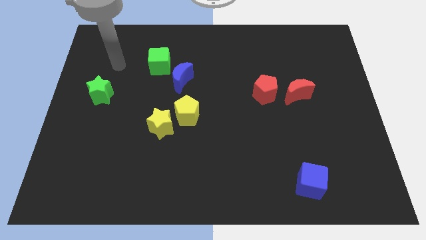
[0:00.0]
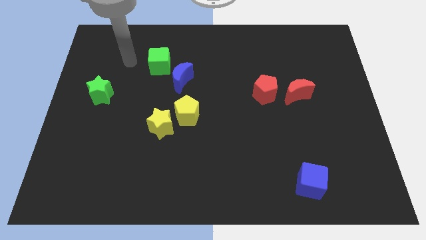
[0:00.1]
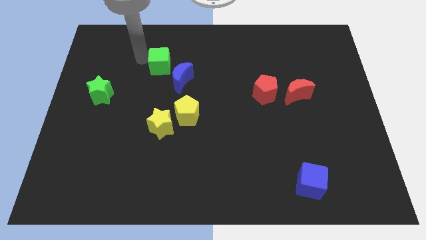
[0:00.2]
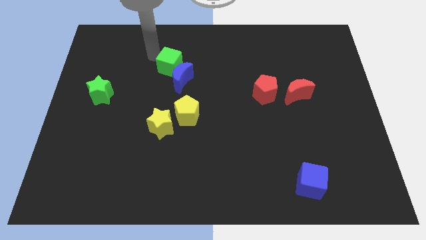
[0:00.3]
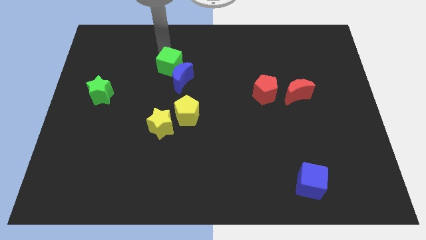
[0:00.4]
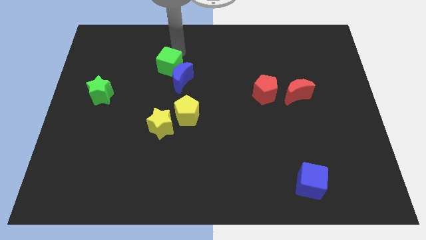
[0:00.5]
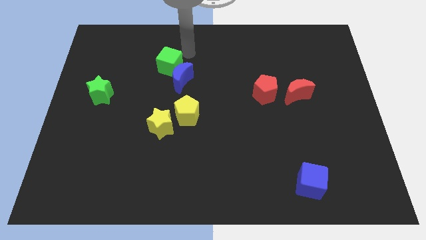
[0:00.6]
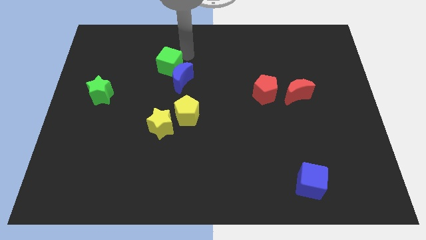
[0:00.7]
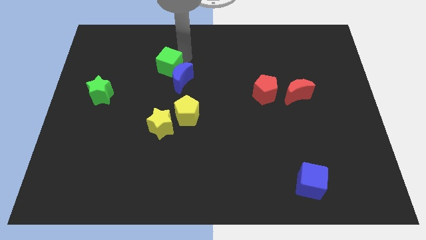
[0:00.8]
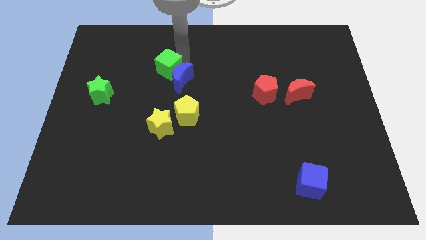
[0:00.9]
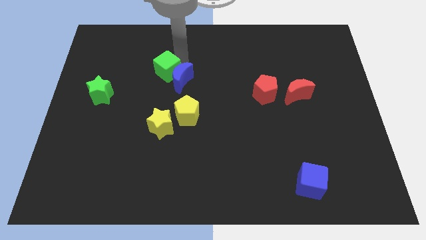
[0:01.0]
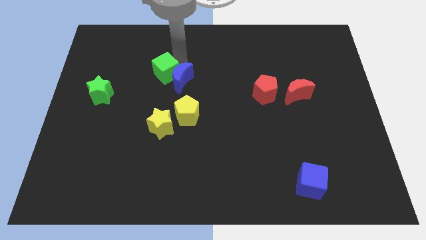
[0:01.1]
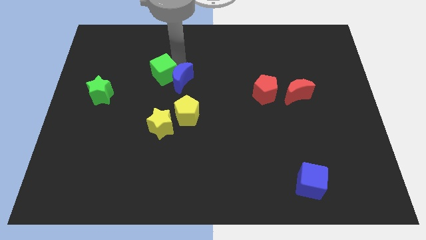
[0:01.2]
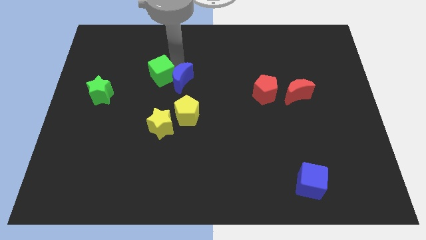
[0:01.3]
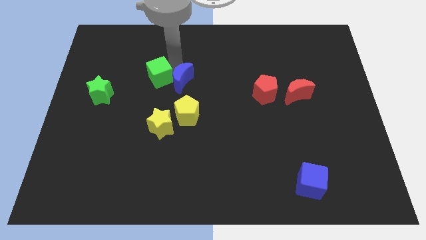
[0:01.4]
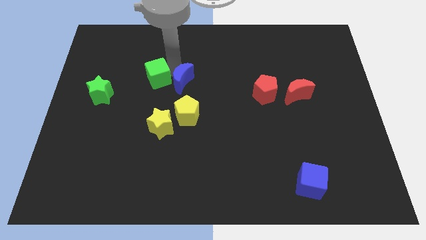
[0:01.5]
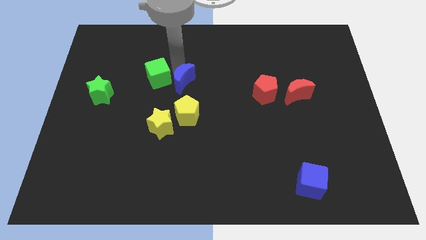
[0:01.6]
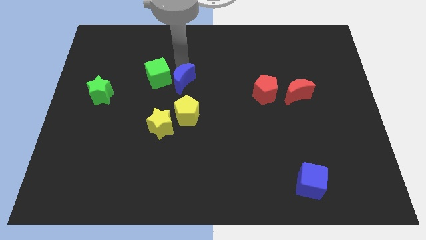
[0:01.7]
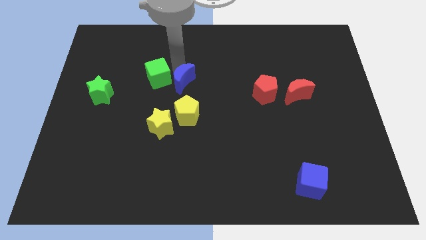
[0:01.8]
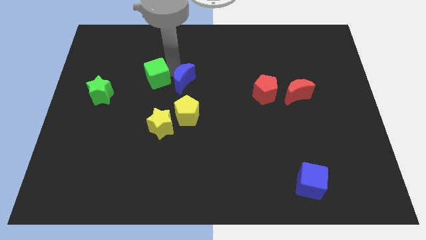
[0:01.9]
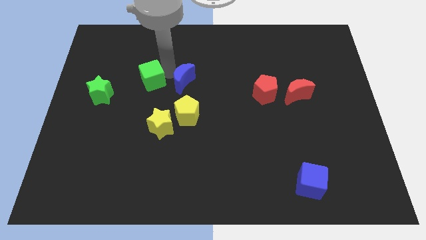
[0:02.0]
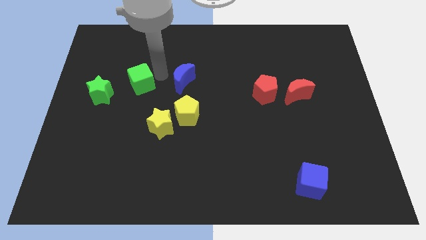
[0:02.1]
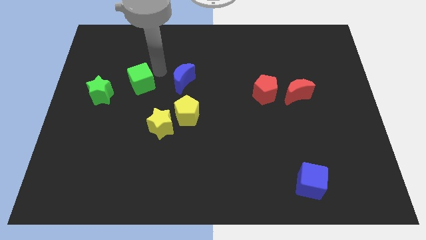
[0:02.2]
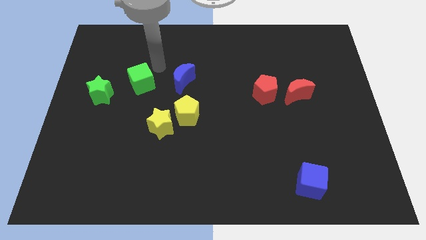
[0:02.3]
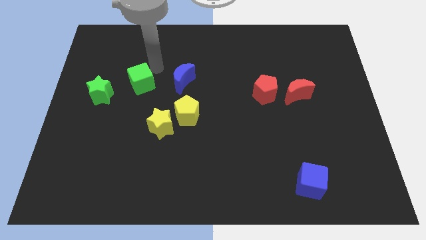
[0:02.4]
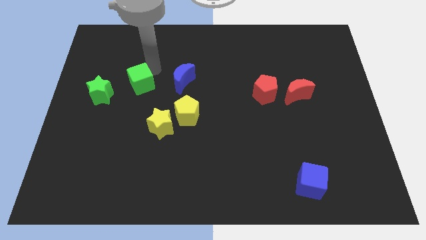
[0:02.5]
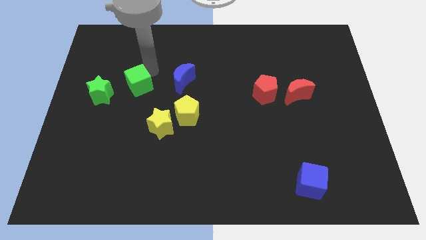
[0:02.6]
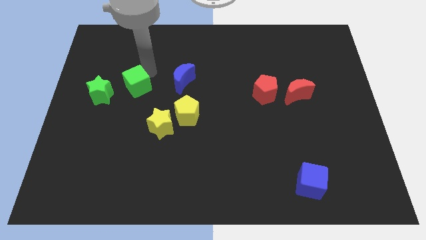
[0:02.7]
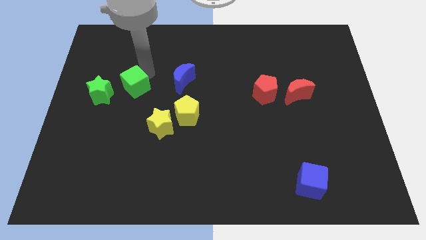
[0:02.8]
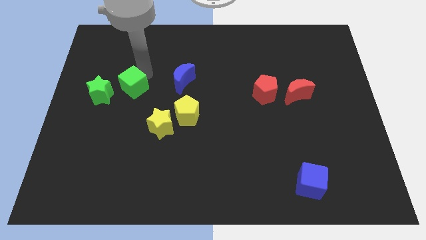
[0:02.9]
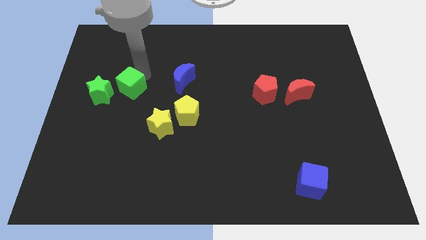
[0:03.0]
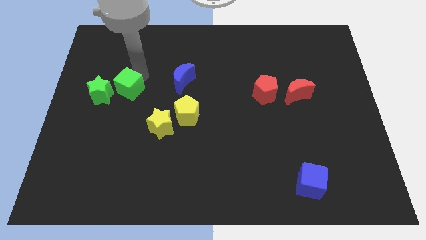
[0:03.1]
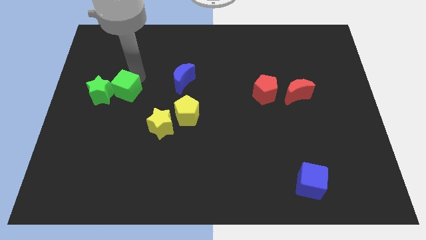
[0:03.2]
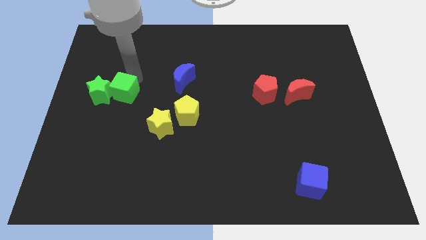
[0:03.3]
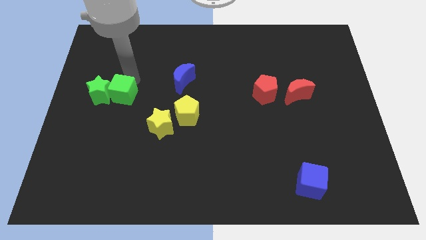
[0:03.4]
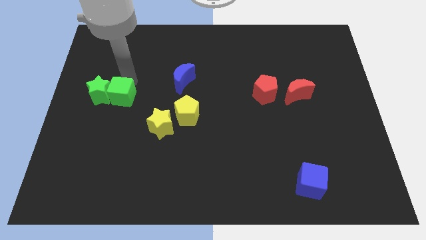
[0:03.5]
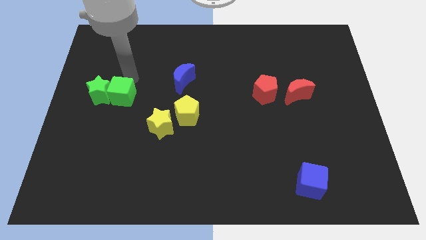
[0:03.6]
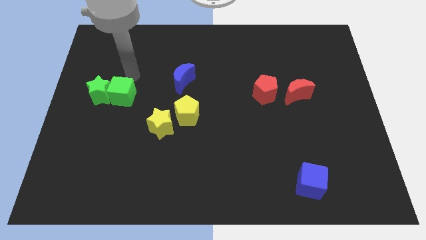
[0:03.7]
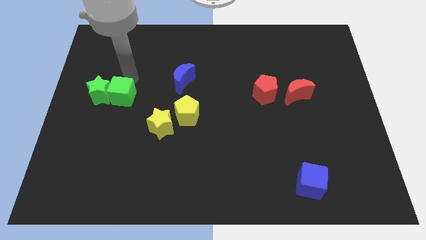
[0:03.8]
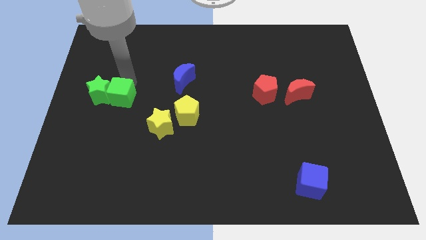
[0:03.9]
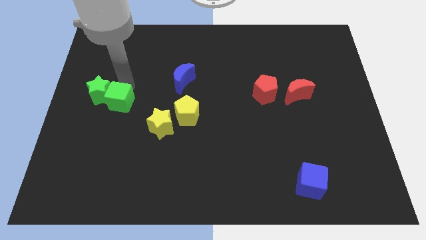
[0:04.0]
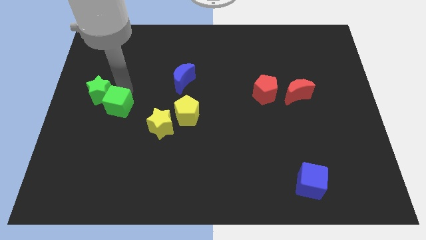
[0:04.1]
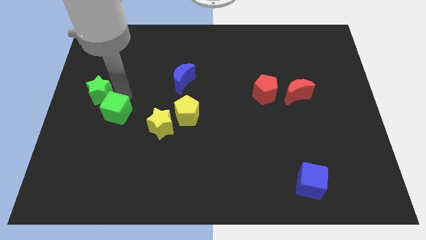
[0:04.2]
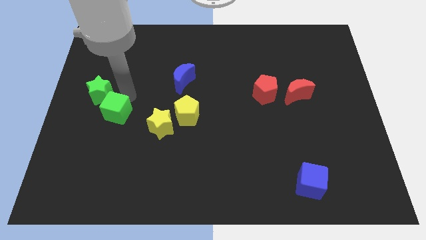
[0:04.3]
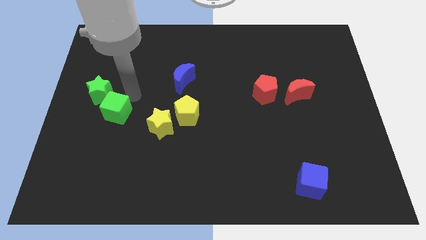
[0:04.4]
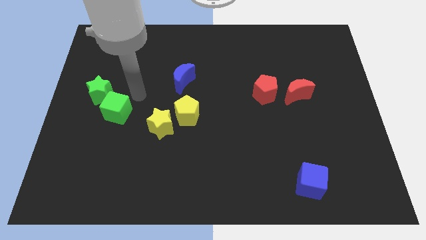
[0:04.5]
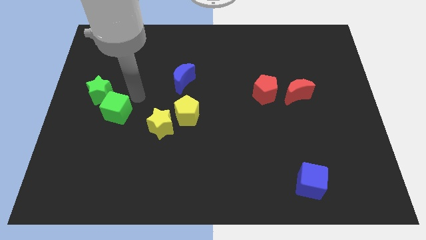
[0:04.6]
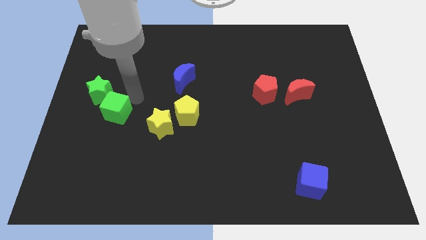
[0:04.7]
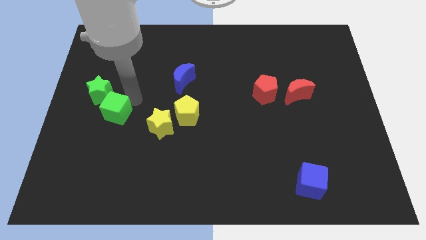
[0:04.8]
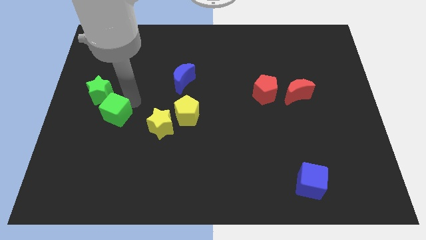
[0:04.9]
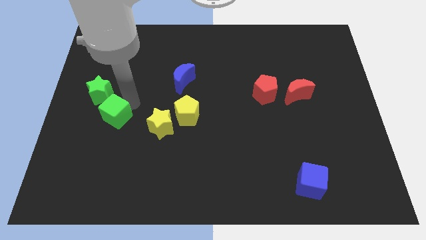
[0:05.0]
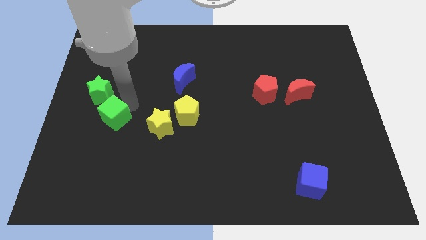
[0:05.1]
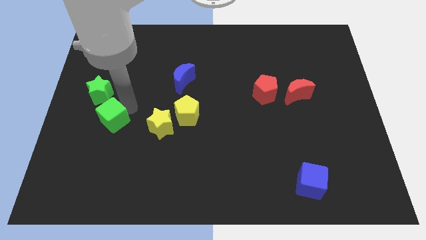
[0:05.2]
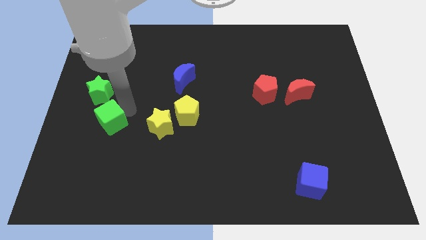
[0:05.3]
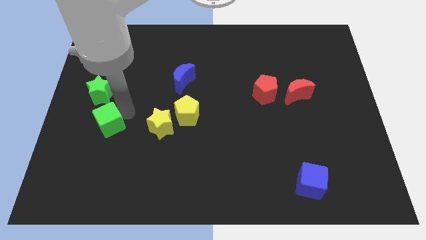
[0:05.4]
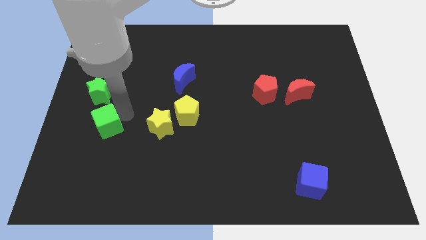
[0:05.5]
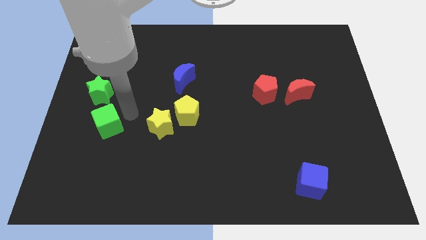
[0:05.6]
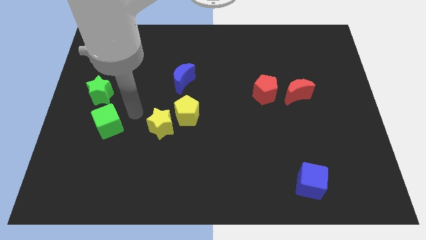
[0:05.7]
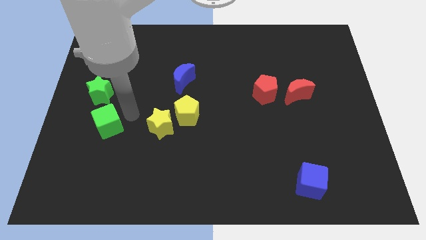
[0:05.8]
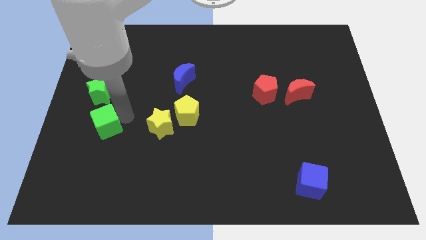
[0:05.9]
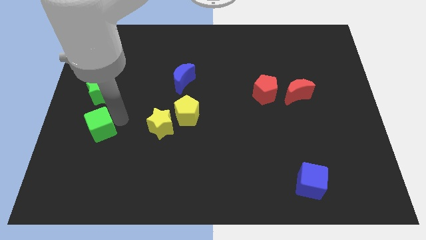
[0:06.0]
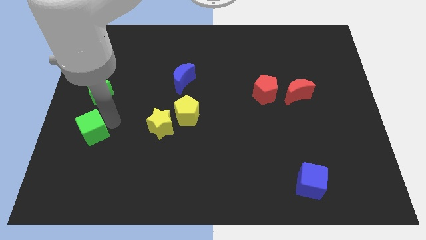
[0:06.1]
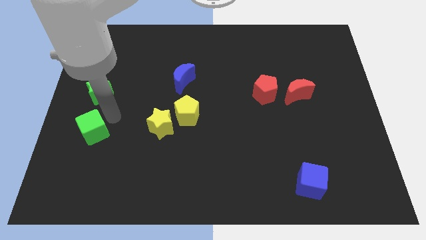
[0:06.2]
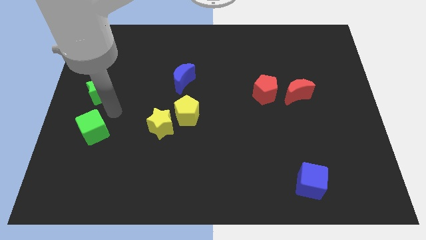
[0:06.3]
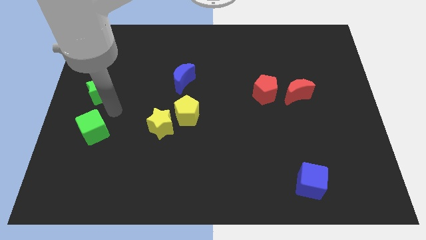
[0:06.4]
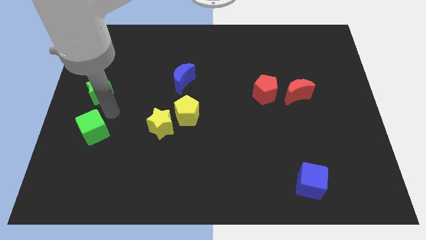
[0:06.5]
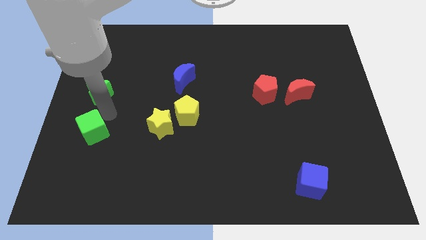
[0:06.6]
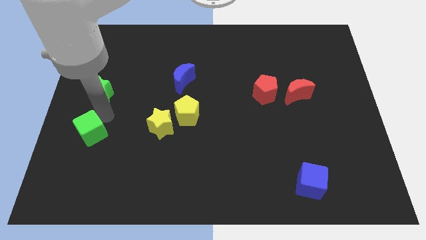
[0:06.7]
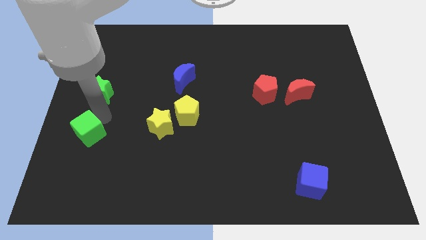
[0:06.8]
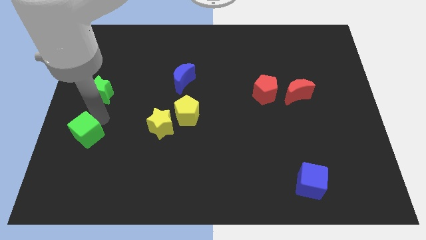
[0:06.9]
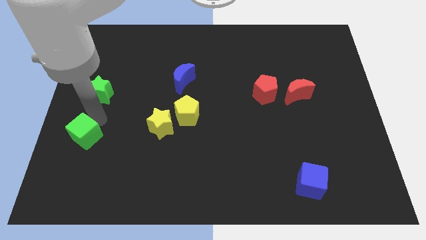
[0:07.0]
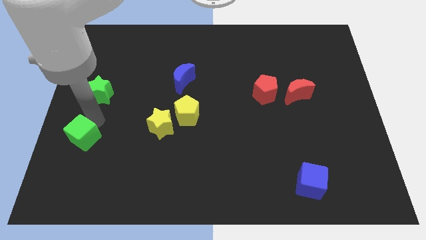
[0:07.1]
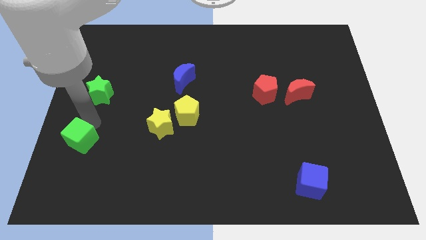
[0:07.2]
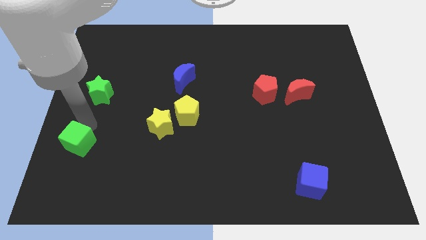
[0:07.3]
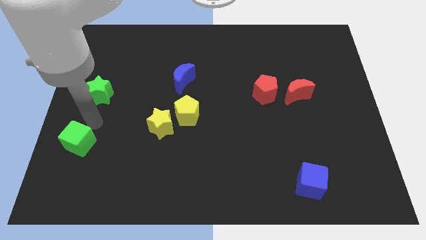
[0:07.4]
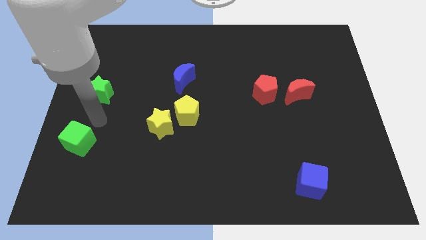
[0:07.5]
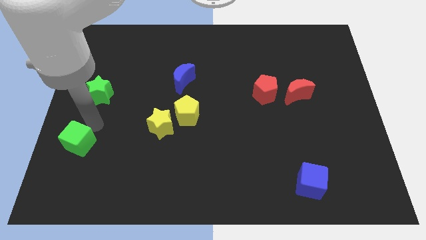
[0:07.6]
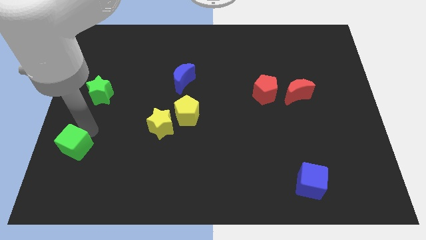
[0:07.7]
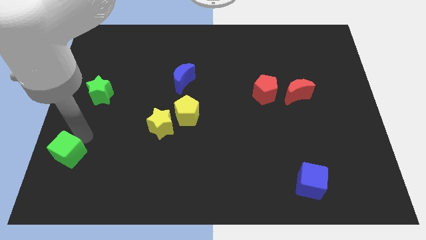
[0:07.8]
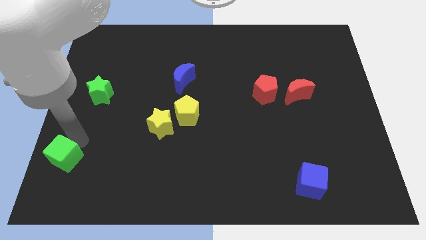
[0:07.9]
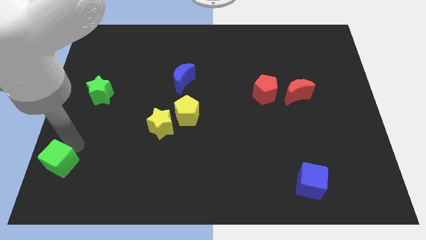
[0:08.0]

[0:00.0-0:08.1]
slide the green cube to the bottom left
